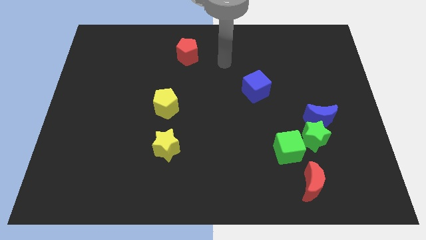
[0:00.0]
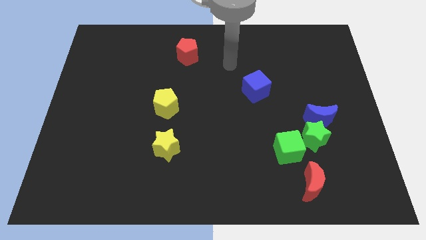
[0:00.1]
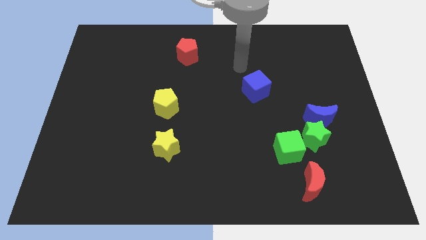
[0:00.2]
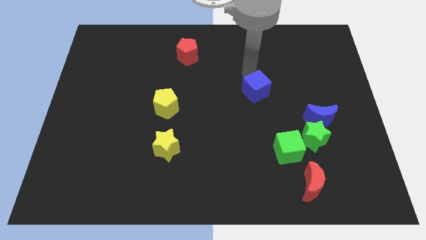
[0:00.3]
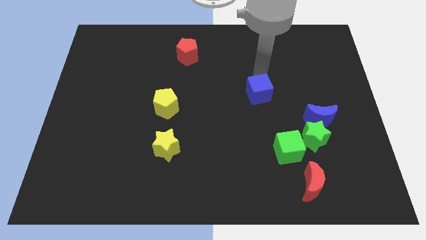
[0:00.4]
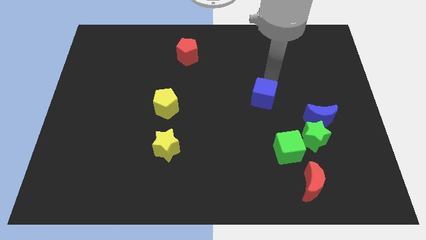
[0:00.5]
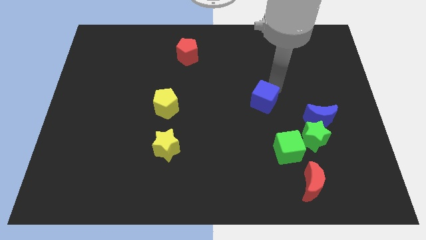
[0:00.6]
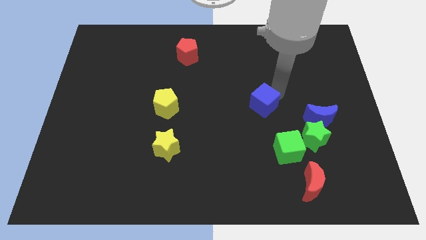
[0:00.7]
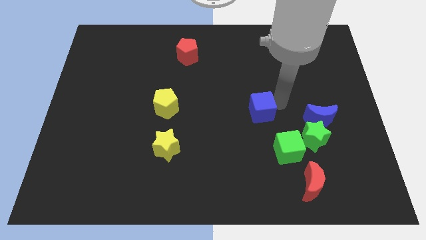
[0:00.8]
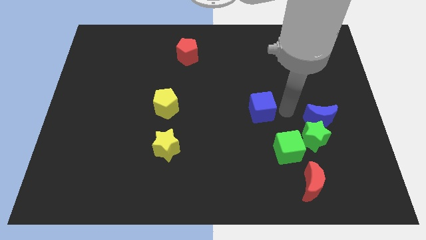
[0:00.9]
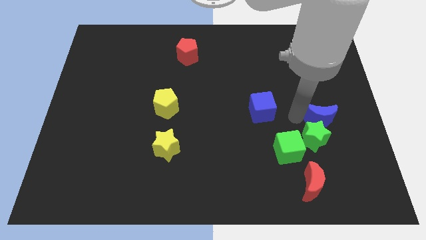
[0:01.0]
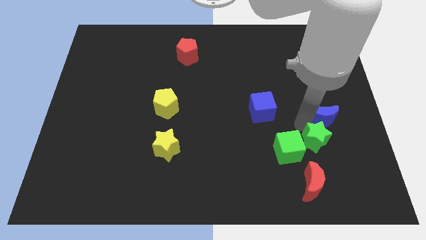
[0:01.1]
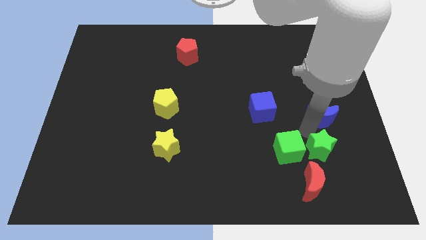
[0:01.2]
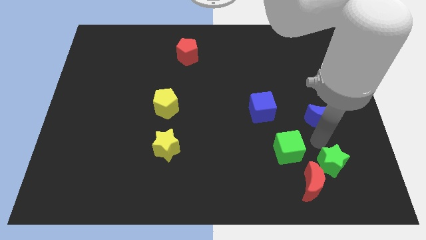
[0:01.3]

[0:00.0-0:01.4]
pull the blue moon apart from the green star

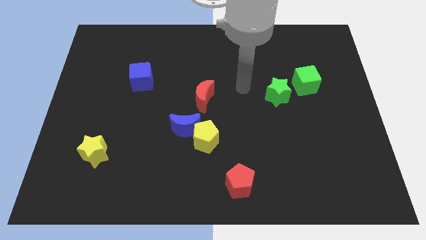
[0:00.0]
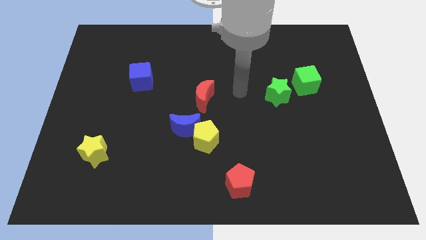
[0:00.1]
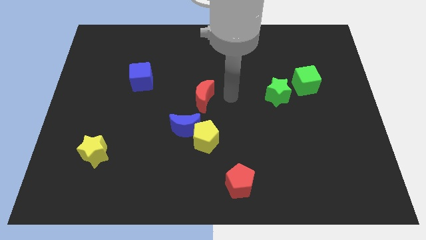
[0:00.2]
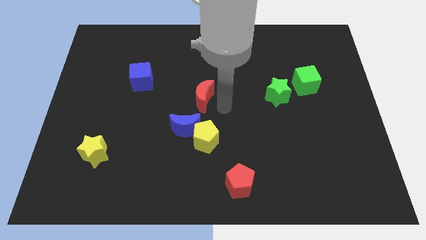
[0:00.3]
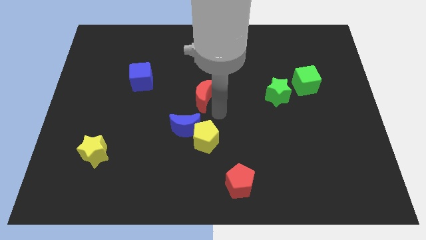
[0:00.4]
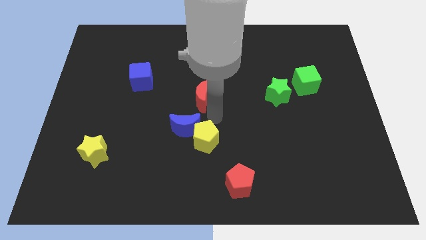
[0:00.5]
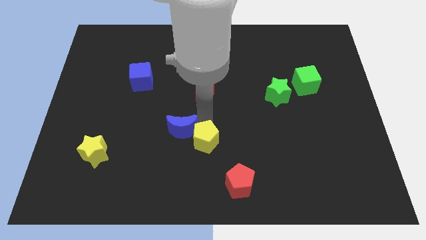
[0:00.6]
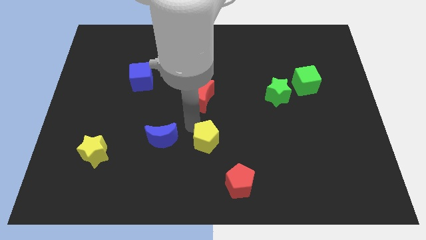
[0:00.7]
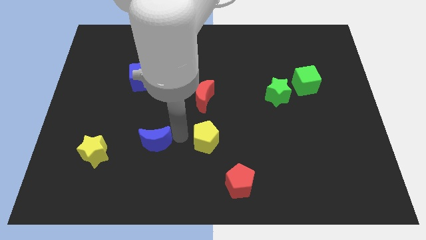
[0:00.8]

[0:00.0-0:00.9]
pull the yellow pentagon apart from the blue moon

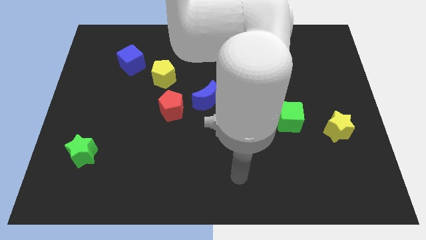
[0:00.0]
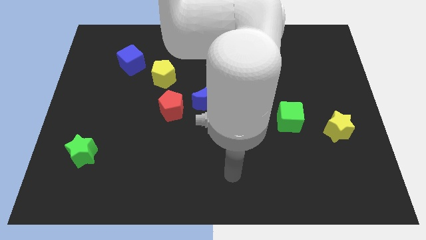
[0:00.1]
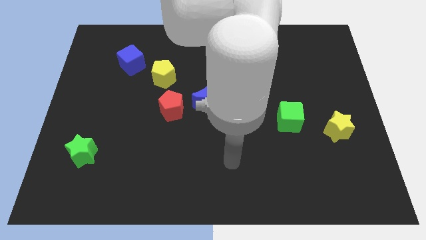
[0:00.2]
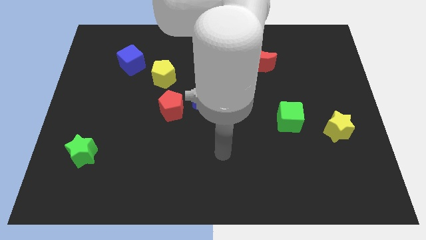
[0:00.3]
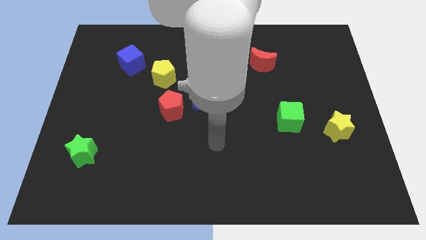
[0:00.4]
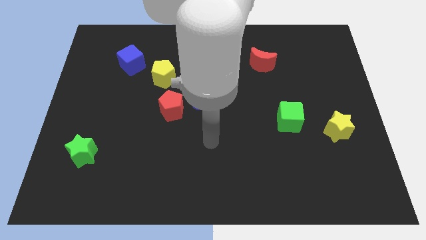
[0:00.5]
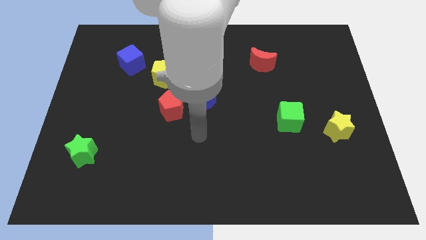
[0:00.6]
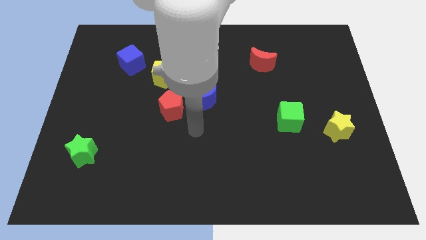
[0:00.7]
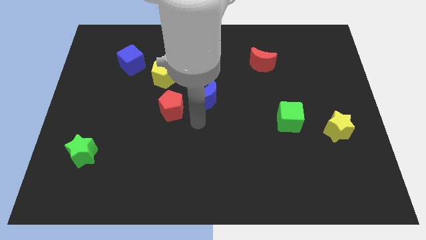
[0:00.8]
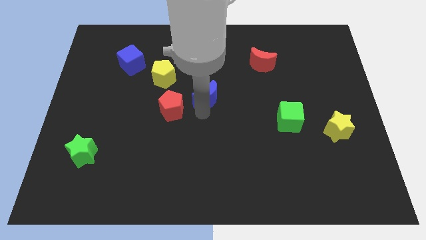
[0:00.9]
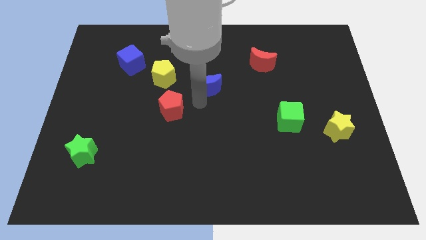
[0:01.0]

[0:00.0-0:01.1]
separate the red pentagon from the blue moon

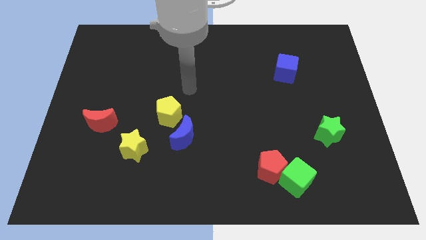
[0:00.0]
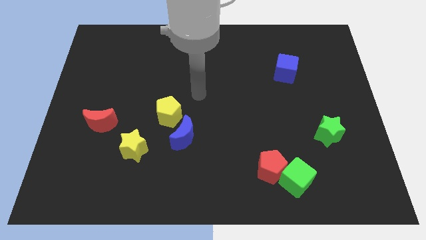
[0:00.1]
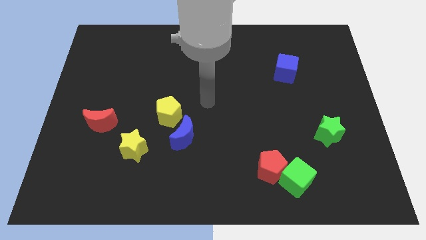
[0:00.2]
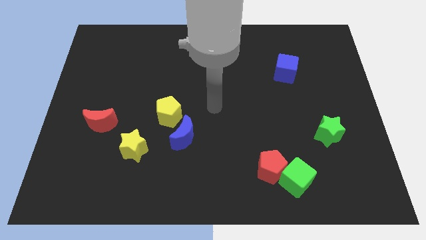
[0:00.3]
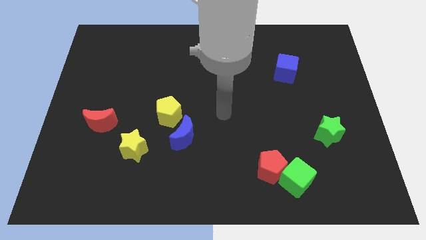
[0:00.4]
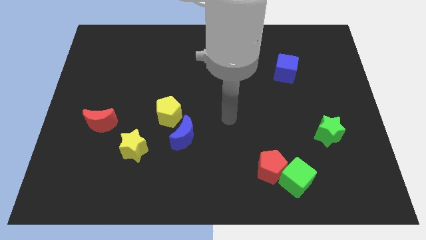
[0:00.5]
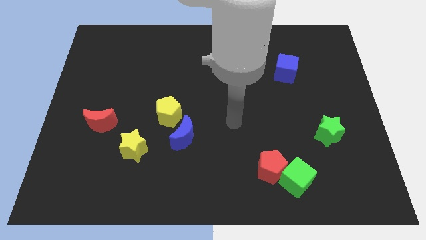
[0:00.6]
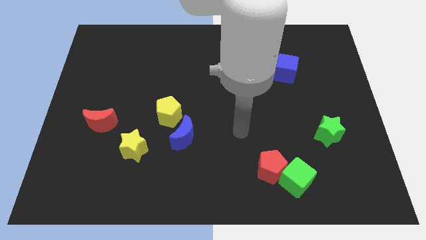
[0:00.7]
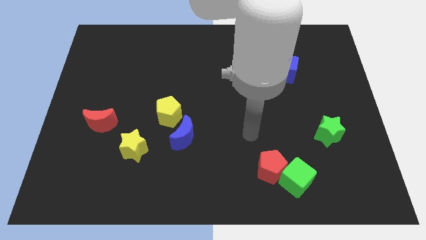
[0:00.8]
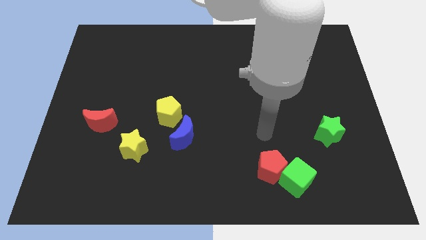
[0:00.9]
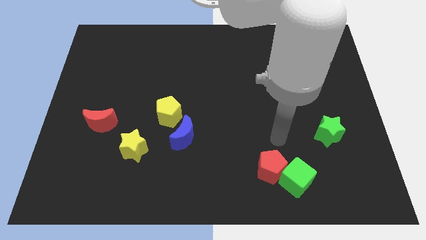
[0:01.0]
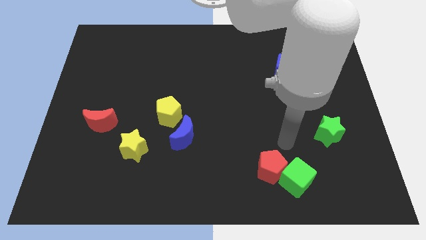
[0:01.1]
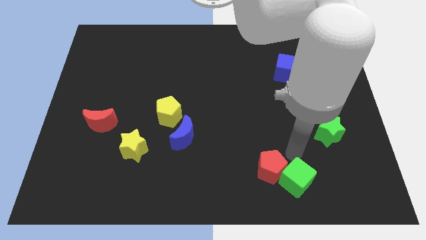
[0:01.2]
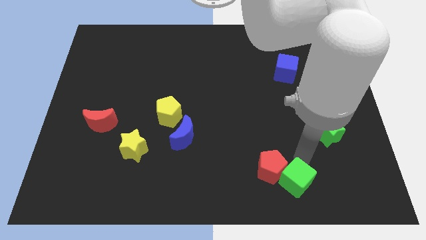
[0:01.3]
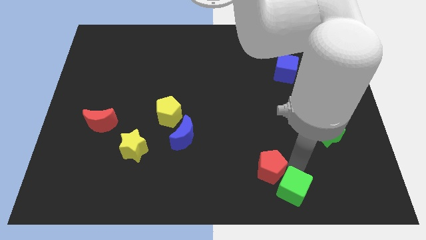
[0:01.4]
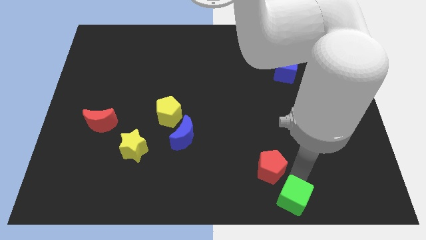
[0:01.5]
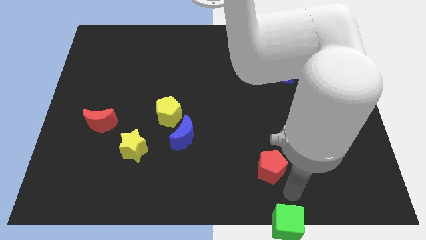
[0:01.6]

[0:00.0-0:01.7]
separate the red pentagon from the green cube

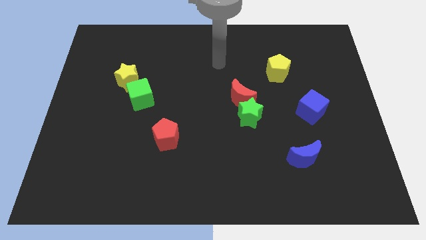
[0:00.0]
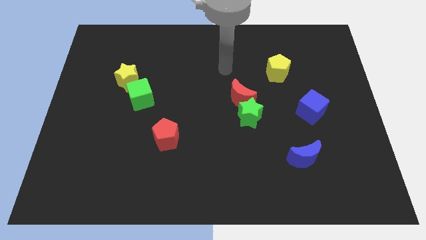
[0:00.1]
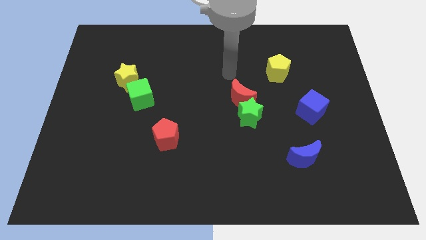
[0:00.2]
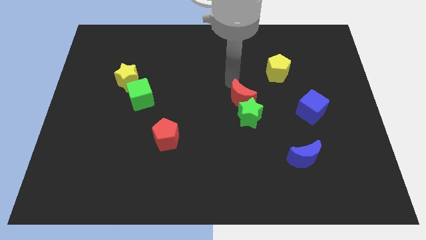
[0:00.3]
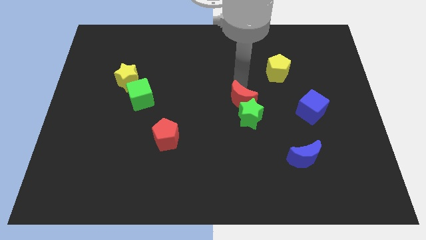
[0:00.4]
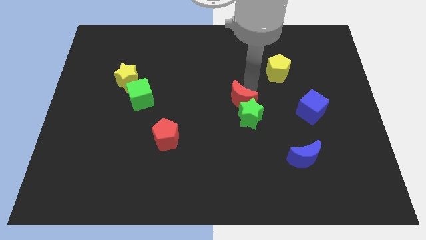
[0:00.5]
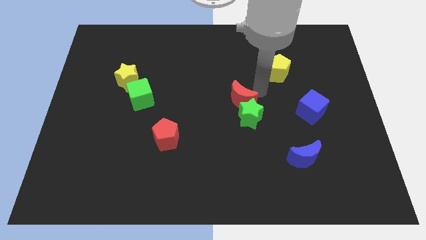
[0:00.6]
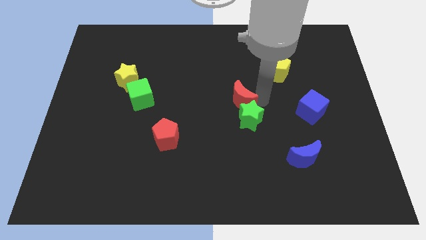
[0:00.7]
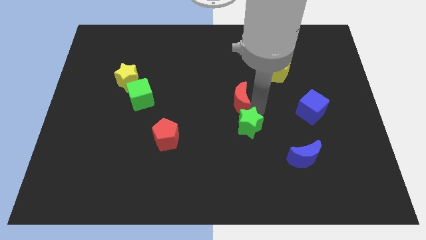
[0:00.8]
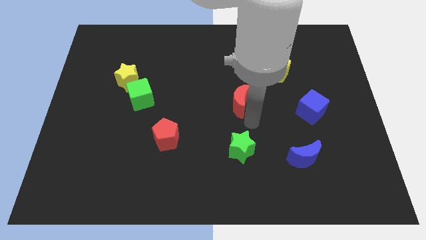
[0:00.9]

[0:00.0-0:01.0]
separate the red moon from the green star

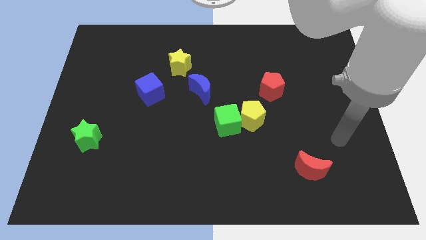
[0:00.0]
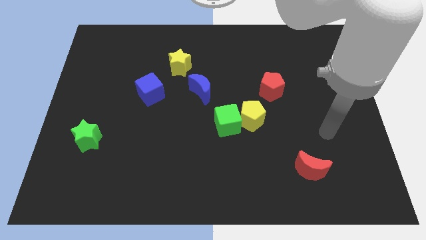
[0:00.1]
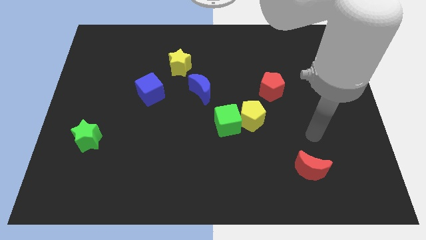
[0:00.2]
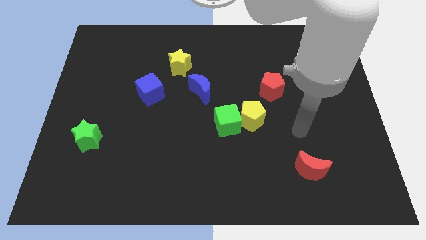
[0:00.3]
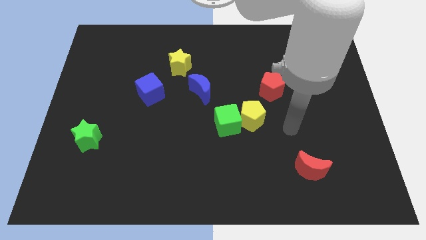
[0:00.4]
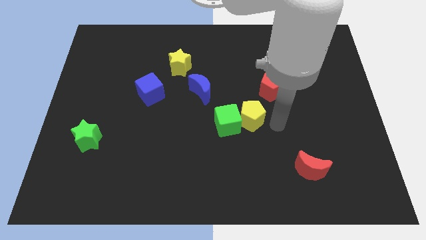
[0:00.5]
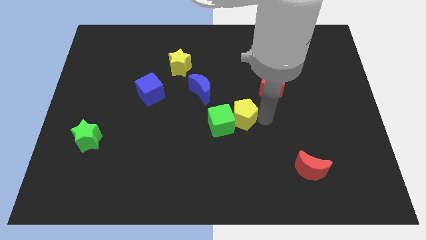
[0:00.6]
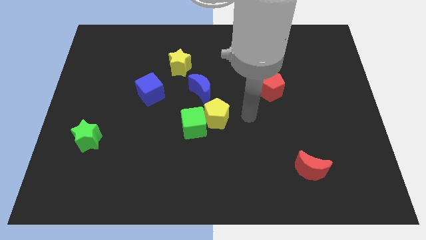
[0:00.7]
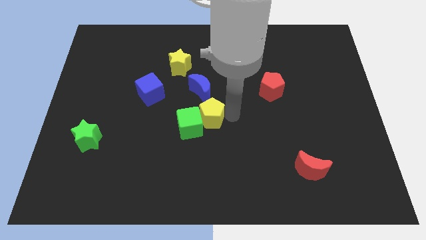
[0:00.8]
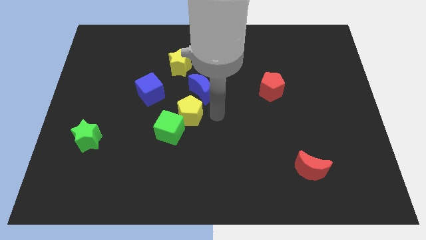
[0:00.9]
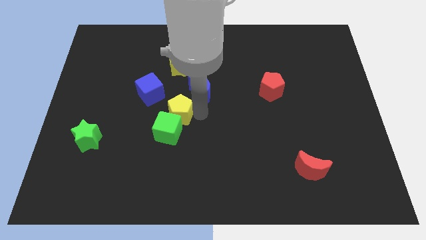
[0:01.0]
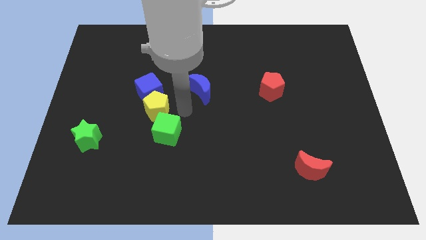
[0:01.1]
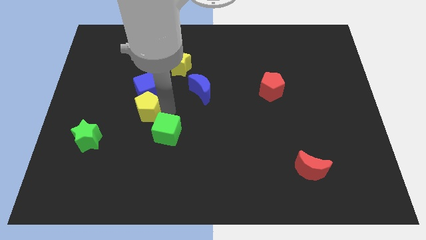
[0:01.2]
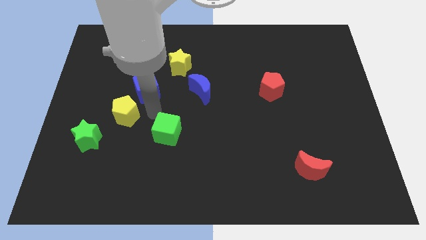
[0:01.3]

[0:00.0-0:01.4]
pull the green cube apart from the yellow pentagon

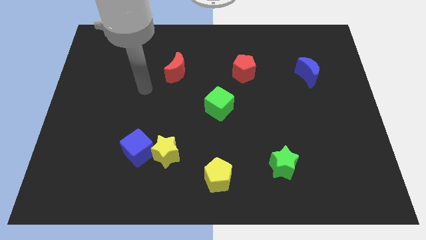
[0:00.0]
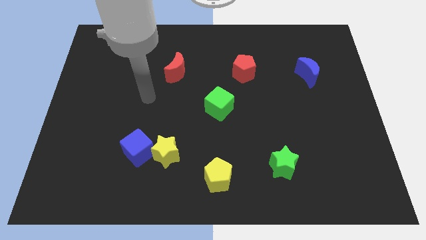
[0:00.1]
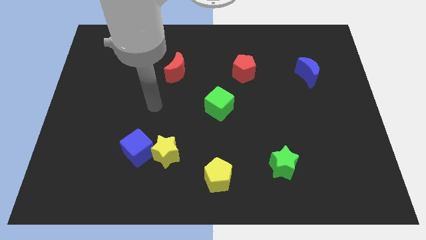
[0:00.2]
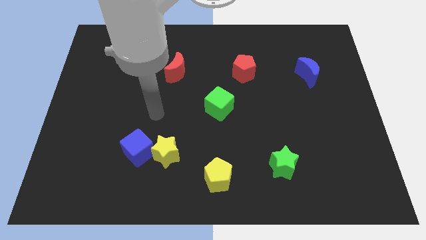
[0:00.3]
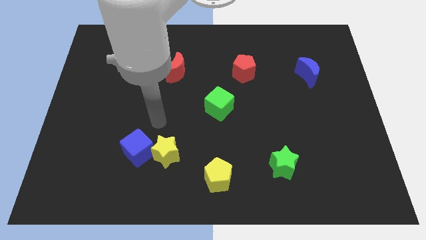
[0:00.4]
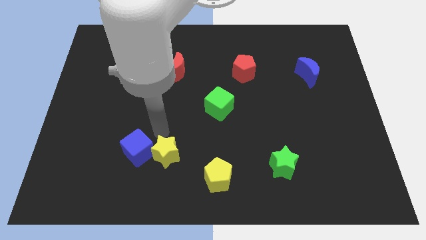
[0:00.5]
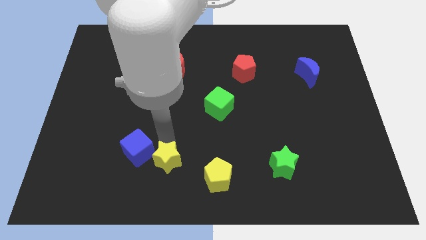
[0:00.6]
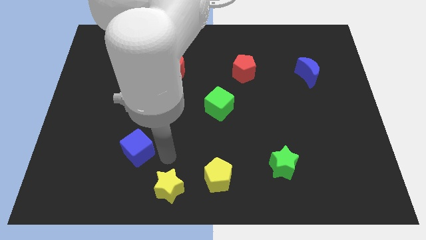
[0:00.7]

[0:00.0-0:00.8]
pull the blue cube apart from the yellow star

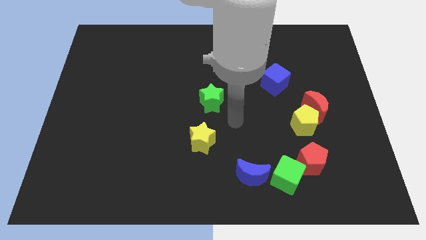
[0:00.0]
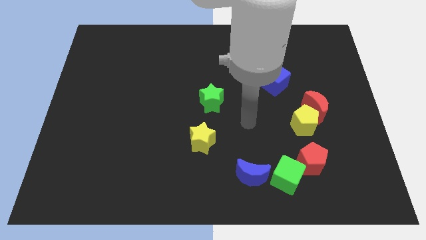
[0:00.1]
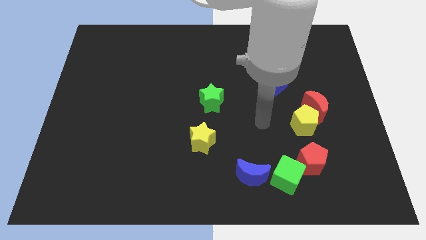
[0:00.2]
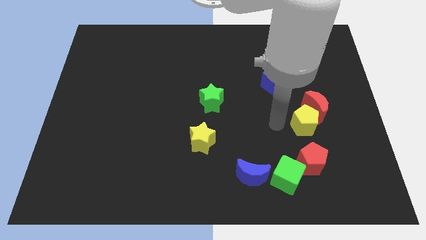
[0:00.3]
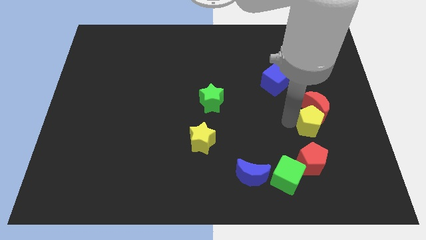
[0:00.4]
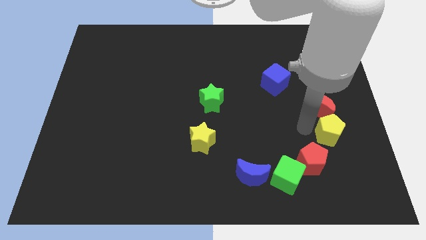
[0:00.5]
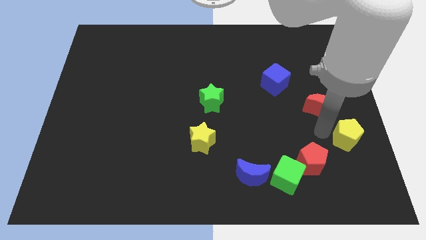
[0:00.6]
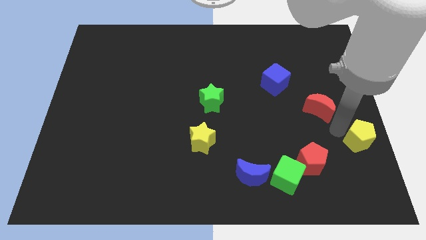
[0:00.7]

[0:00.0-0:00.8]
move the red moon away from the yellow pentagon

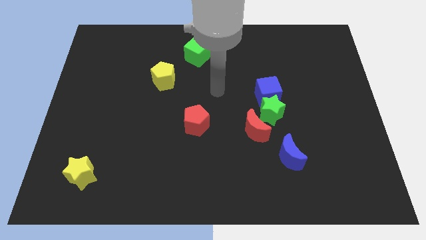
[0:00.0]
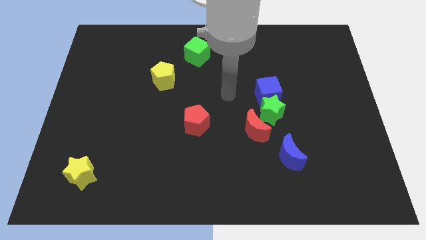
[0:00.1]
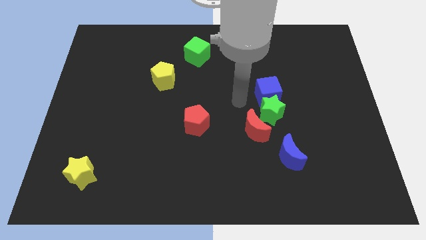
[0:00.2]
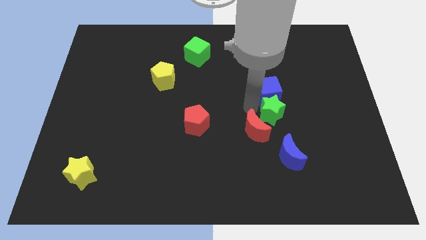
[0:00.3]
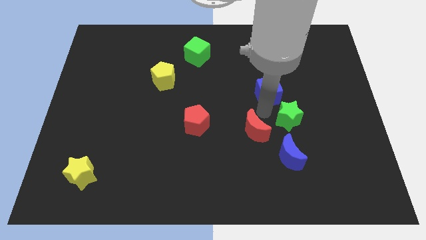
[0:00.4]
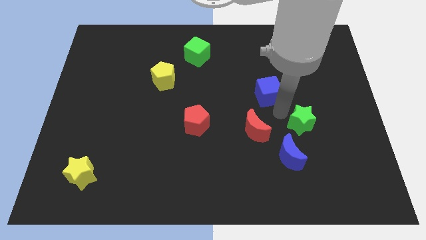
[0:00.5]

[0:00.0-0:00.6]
separate the blue cube from the green star
